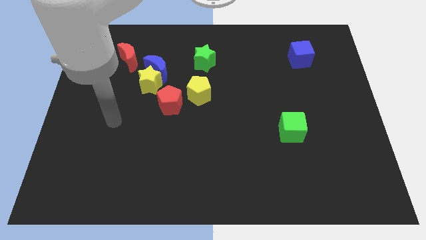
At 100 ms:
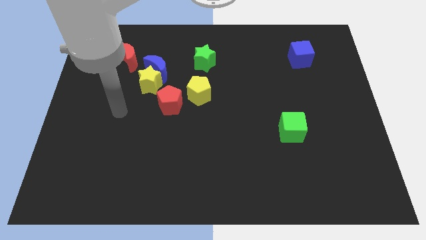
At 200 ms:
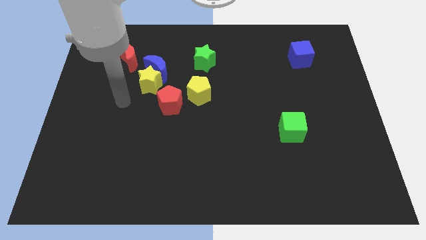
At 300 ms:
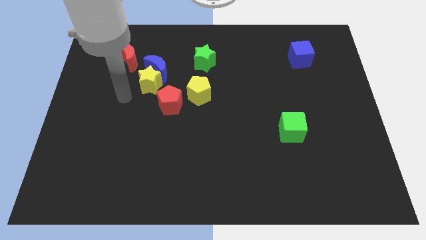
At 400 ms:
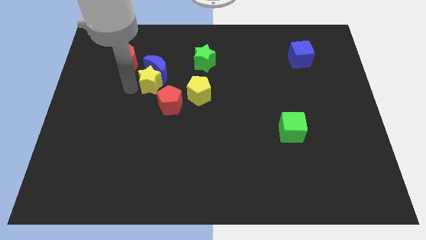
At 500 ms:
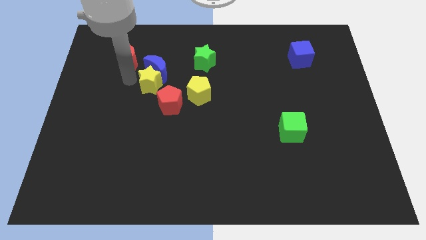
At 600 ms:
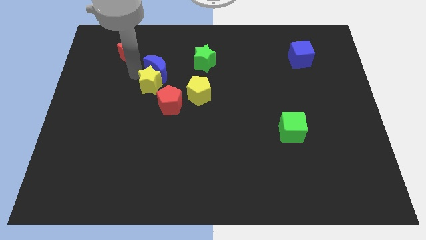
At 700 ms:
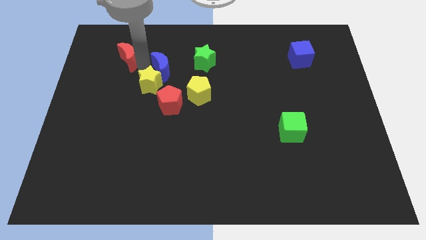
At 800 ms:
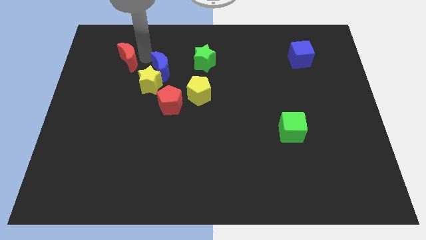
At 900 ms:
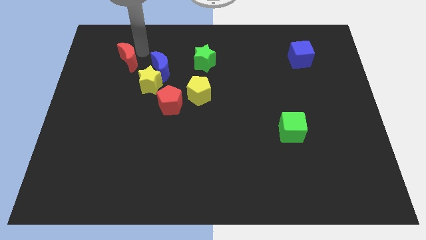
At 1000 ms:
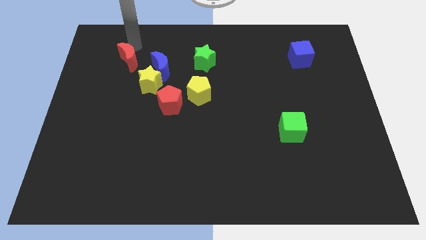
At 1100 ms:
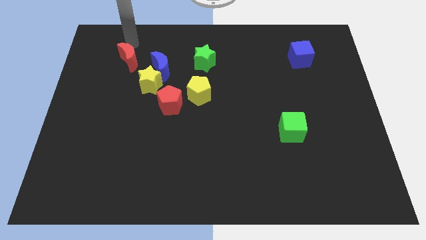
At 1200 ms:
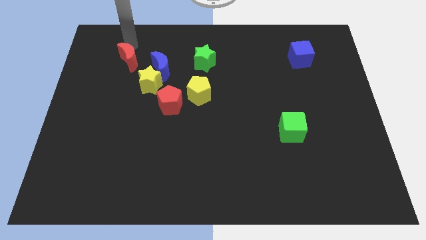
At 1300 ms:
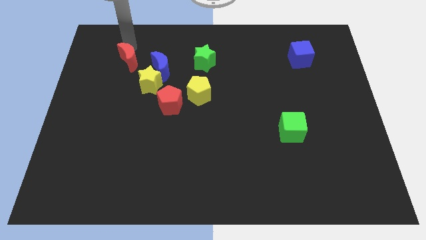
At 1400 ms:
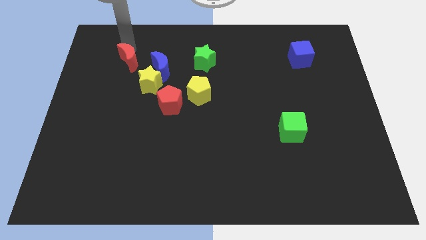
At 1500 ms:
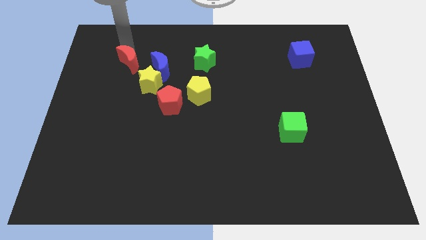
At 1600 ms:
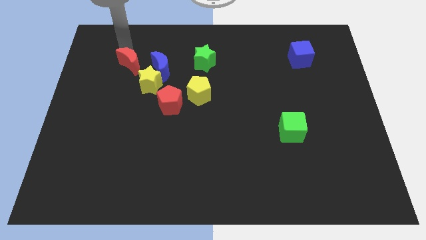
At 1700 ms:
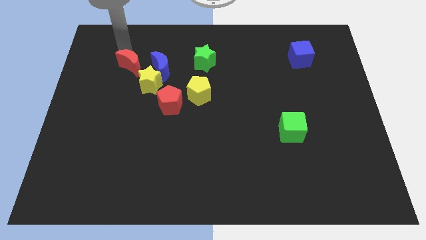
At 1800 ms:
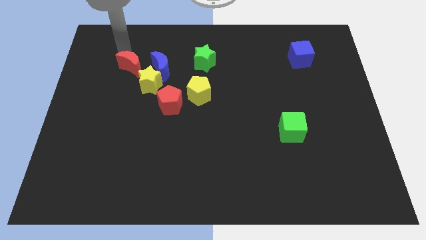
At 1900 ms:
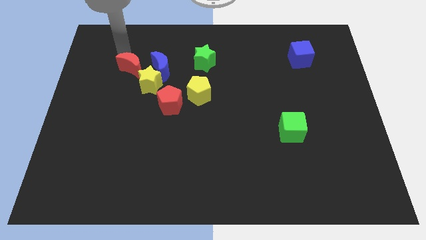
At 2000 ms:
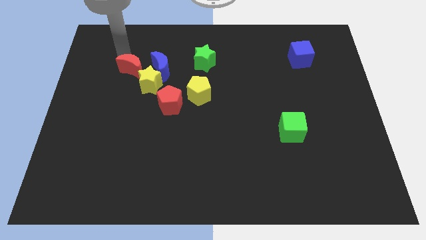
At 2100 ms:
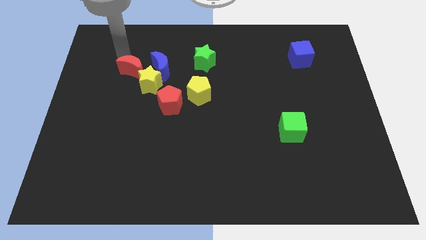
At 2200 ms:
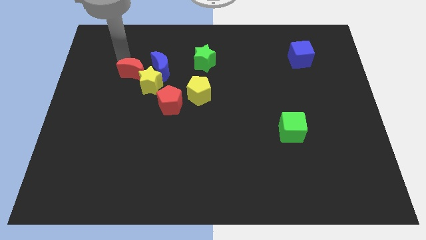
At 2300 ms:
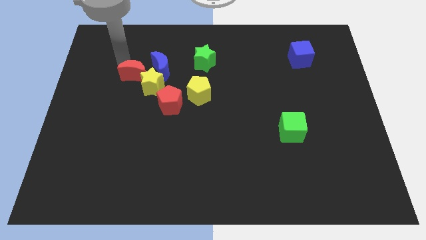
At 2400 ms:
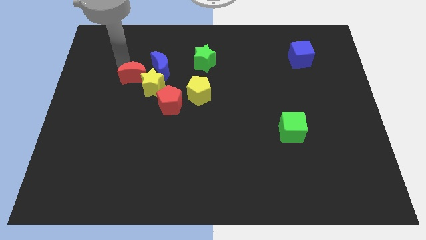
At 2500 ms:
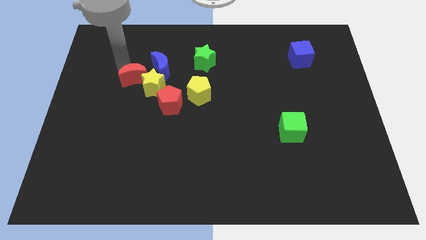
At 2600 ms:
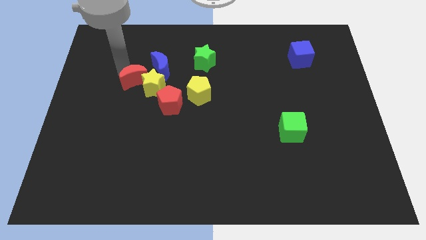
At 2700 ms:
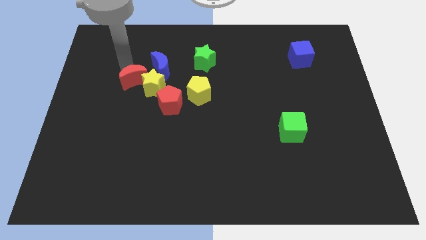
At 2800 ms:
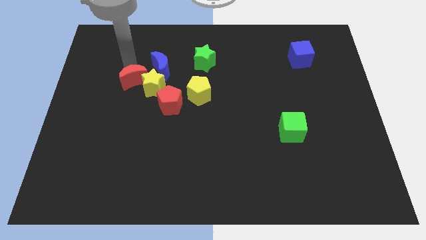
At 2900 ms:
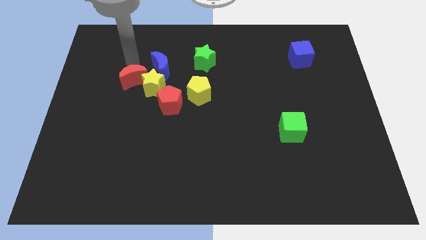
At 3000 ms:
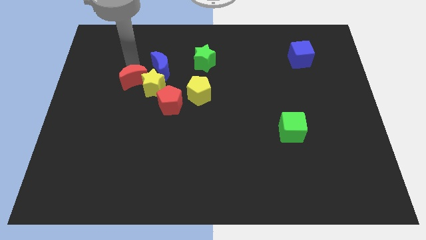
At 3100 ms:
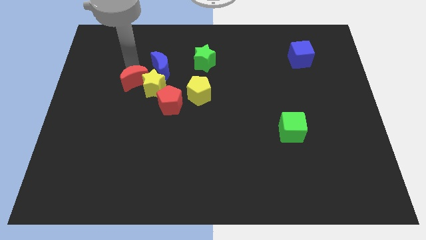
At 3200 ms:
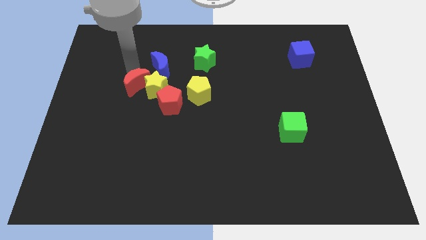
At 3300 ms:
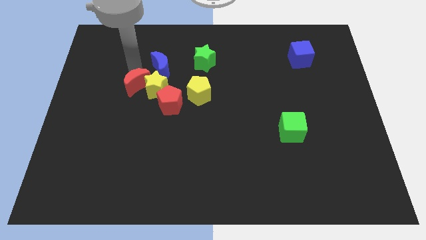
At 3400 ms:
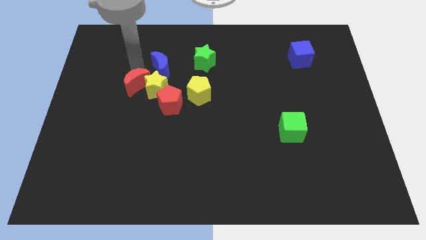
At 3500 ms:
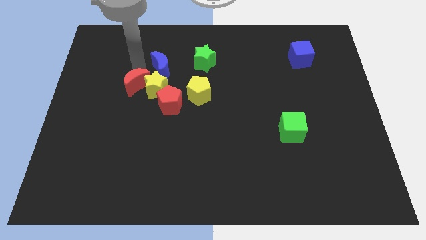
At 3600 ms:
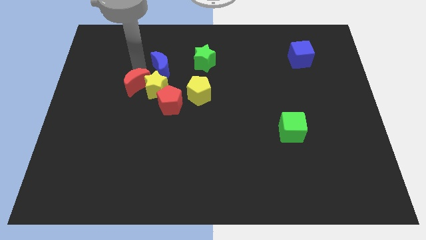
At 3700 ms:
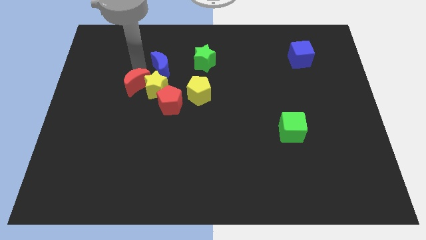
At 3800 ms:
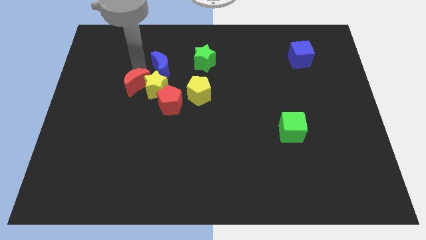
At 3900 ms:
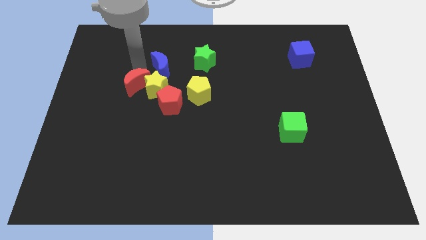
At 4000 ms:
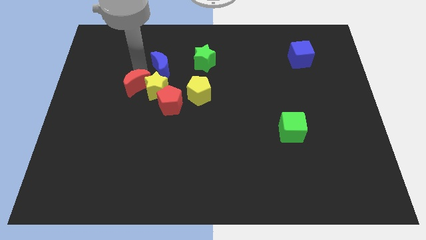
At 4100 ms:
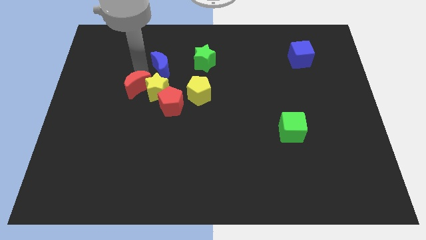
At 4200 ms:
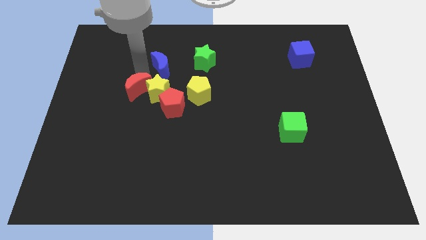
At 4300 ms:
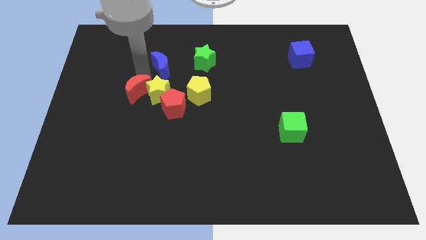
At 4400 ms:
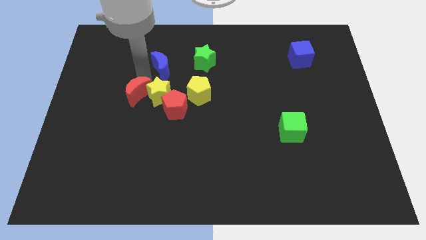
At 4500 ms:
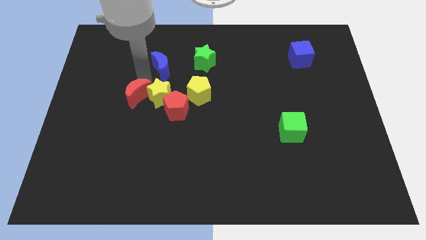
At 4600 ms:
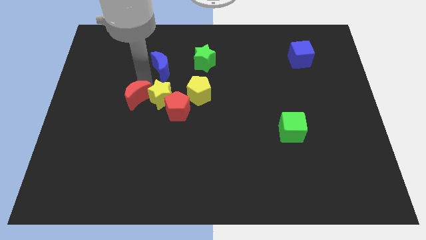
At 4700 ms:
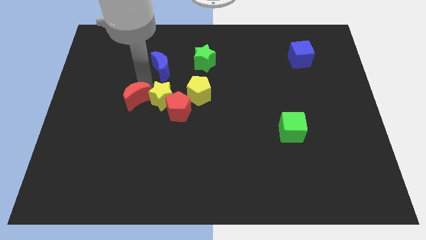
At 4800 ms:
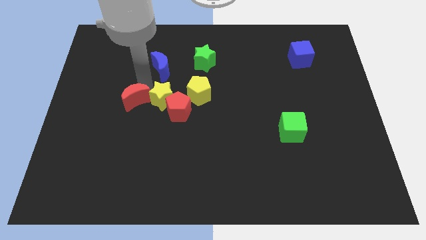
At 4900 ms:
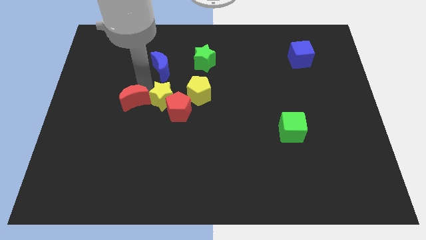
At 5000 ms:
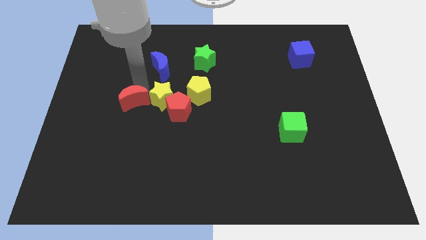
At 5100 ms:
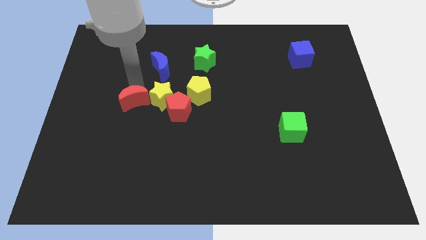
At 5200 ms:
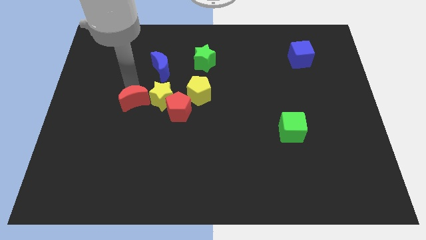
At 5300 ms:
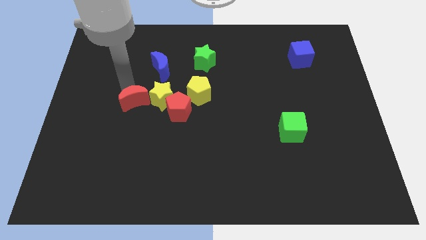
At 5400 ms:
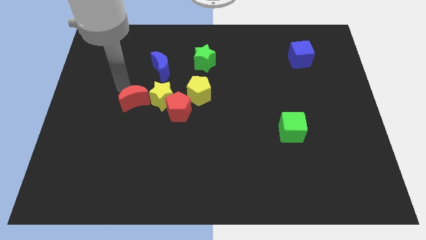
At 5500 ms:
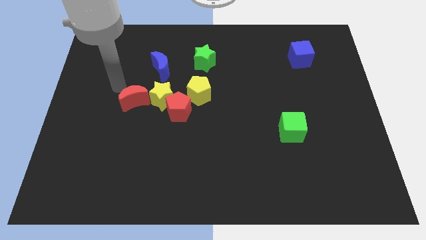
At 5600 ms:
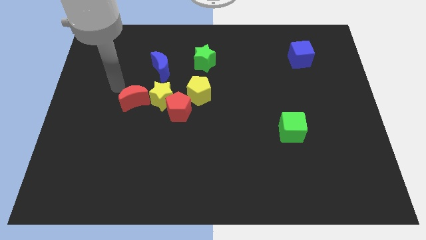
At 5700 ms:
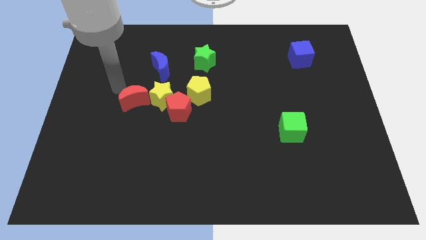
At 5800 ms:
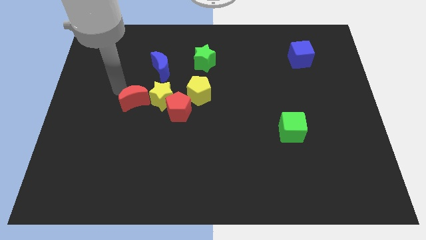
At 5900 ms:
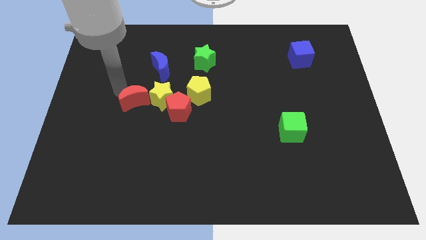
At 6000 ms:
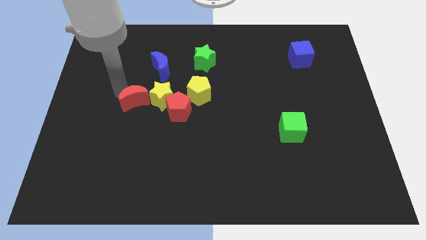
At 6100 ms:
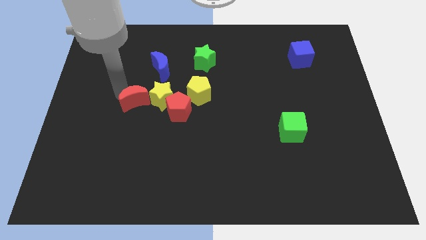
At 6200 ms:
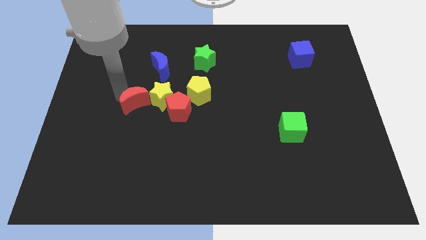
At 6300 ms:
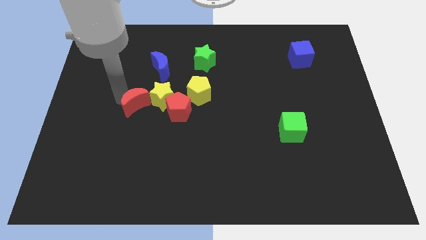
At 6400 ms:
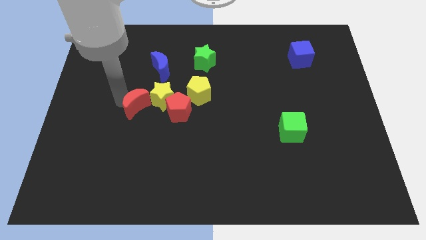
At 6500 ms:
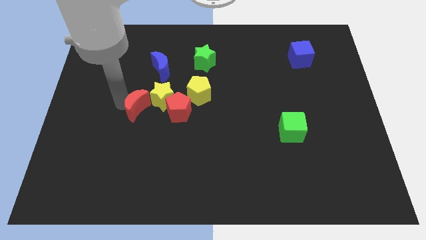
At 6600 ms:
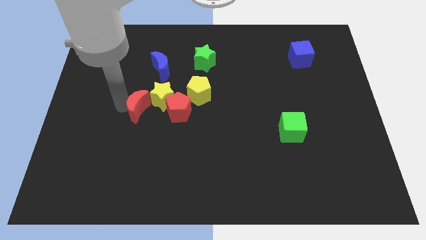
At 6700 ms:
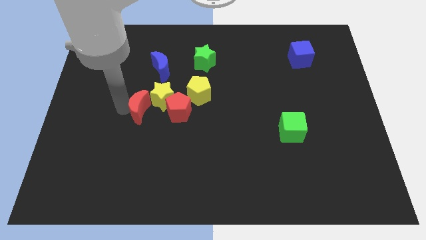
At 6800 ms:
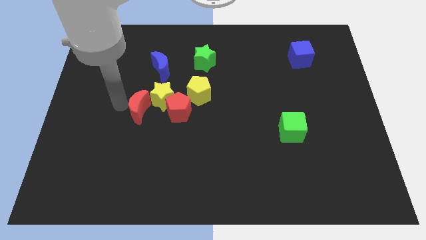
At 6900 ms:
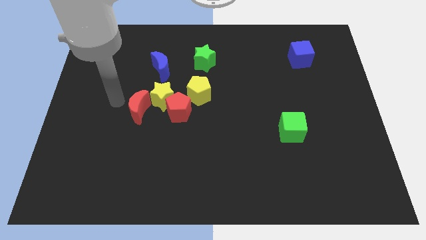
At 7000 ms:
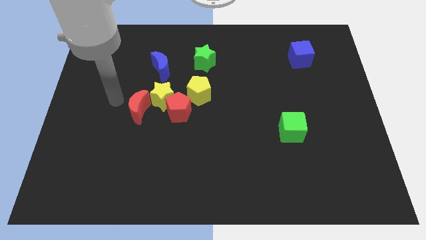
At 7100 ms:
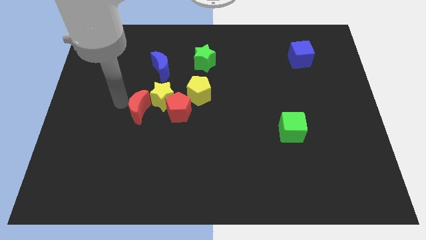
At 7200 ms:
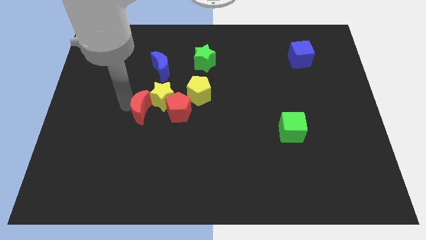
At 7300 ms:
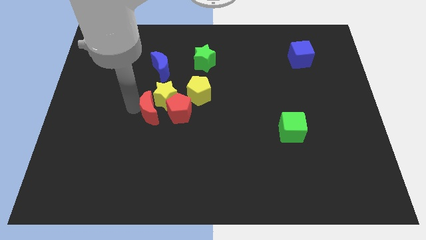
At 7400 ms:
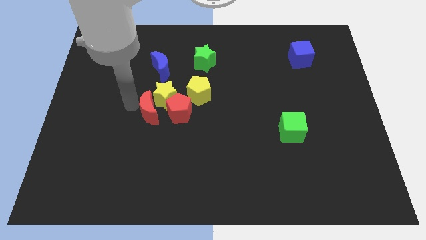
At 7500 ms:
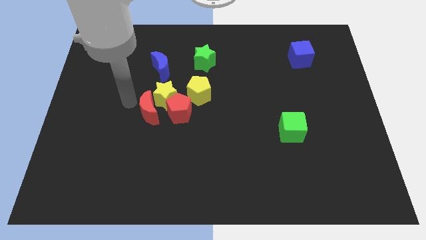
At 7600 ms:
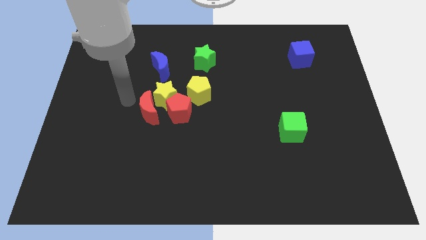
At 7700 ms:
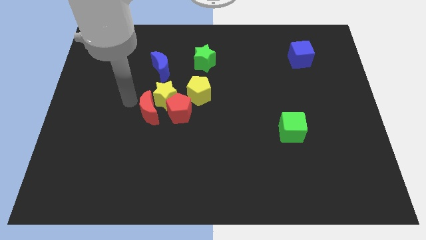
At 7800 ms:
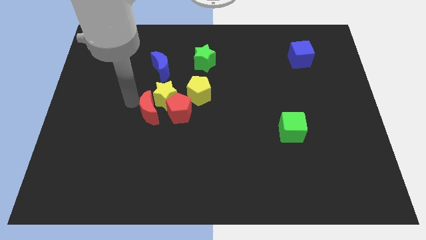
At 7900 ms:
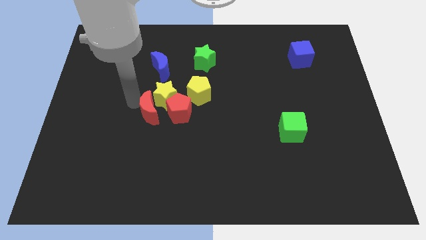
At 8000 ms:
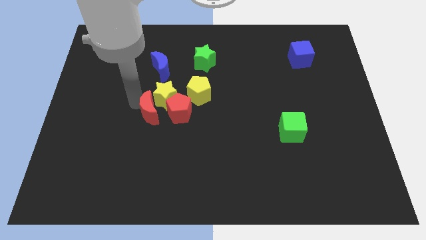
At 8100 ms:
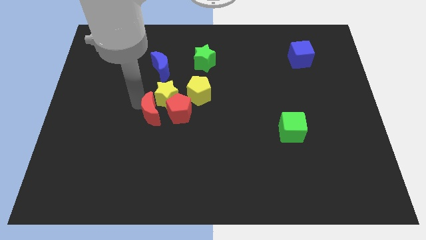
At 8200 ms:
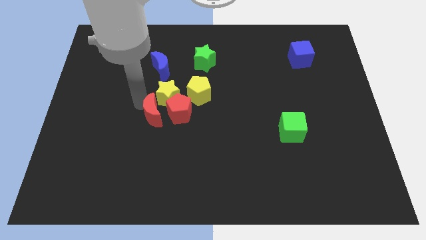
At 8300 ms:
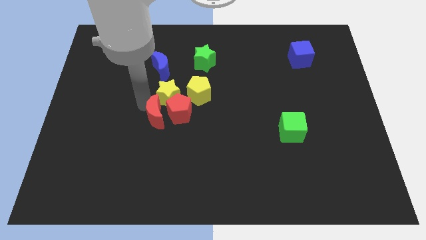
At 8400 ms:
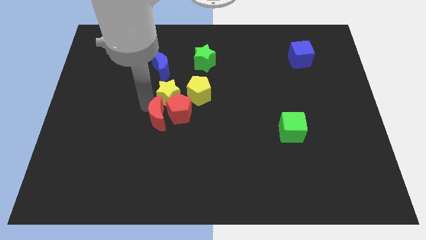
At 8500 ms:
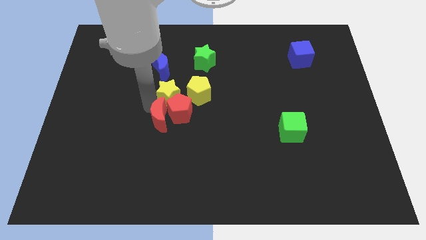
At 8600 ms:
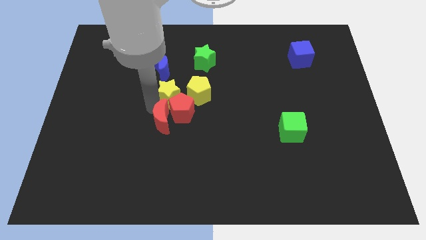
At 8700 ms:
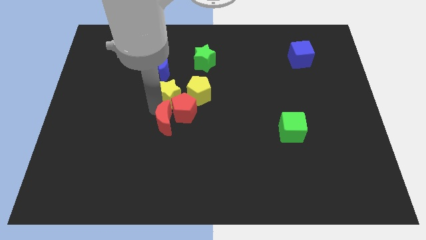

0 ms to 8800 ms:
move the red moon downwards and to the right
